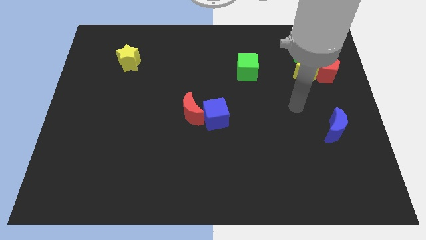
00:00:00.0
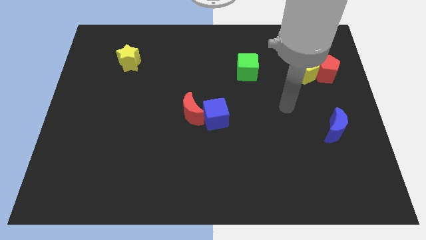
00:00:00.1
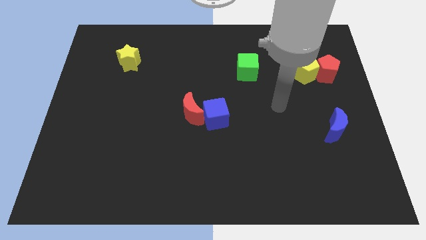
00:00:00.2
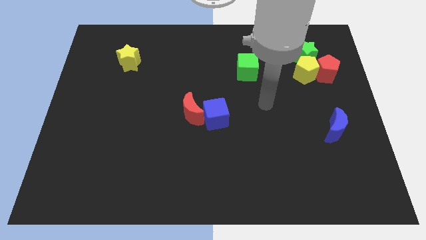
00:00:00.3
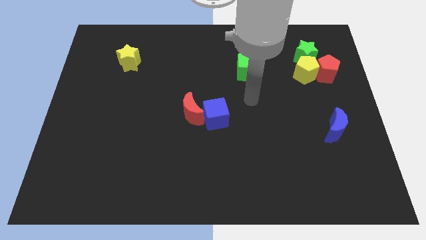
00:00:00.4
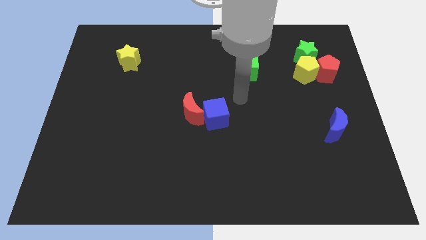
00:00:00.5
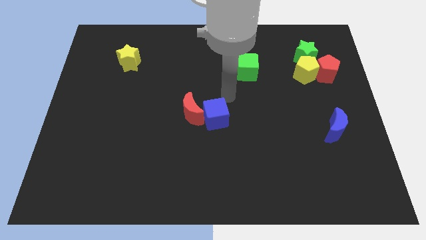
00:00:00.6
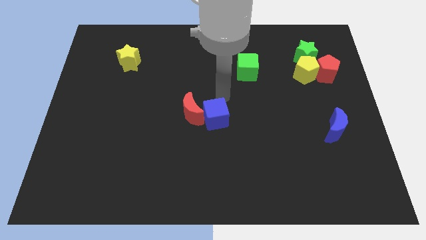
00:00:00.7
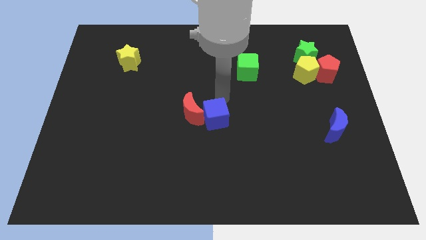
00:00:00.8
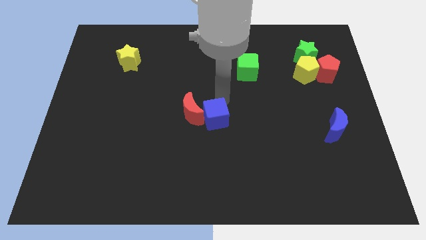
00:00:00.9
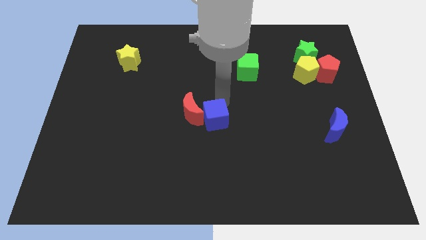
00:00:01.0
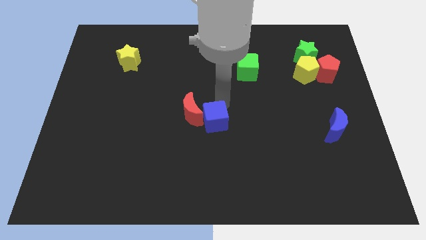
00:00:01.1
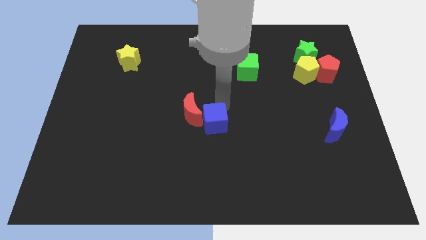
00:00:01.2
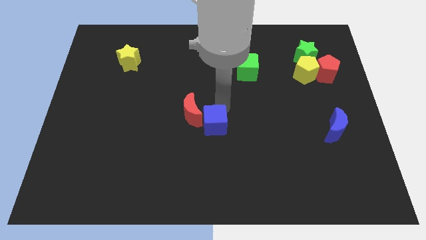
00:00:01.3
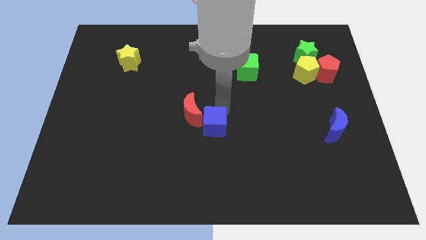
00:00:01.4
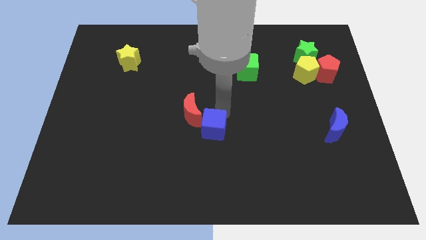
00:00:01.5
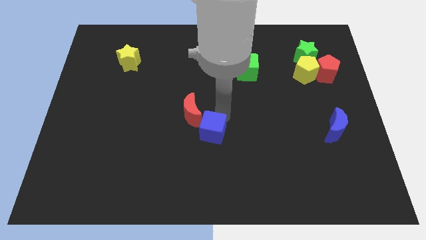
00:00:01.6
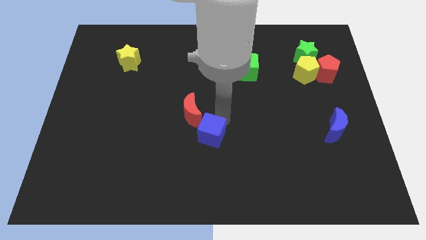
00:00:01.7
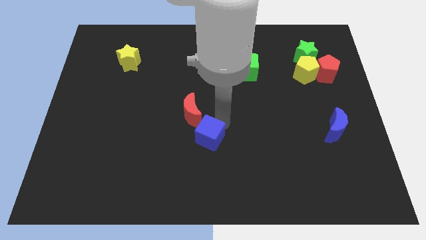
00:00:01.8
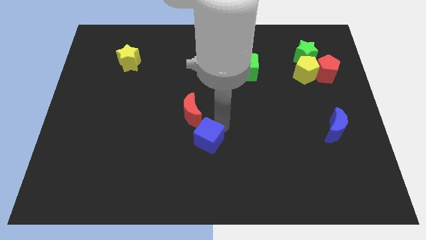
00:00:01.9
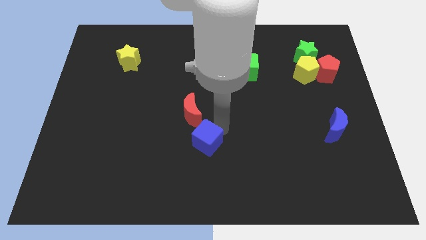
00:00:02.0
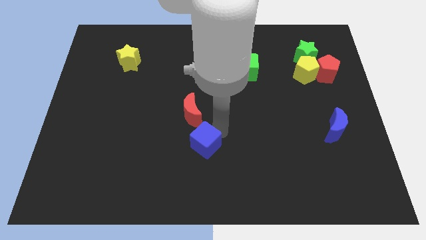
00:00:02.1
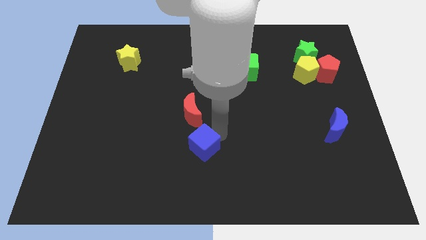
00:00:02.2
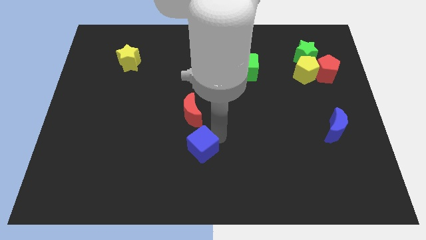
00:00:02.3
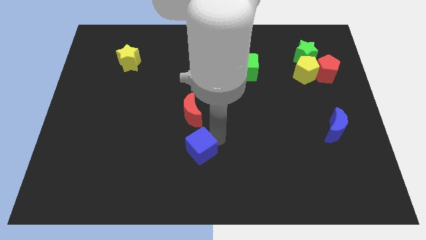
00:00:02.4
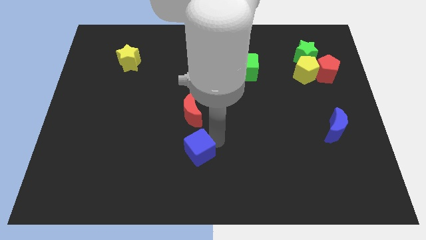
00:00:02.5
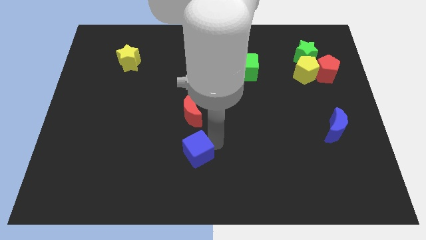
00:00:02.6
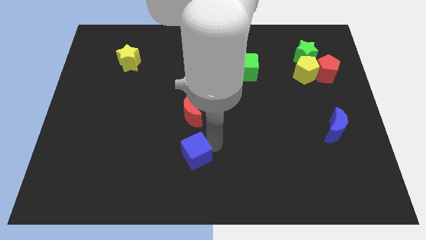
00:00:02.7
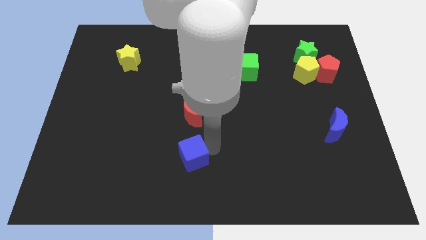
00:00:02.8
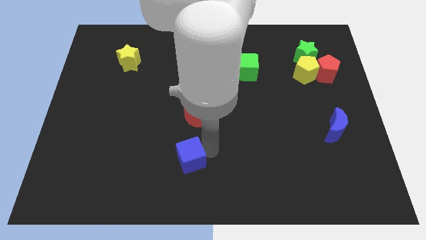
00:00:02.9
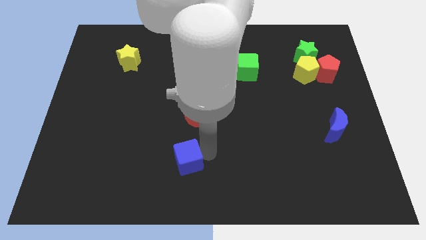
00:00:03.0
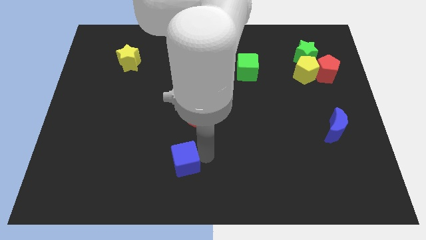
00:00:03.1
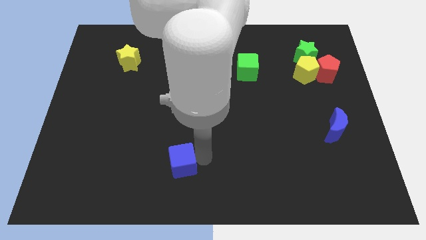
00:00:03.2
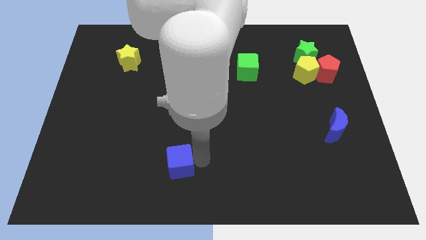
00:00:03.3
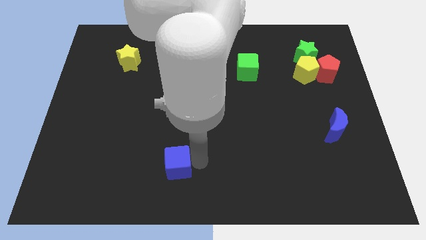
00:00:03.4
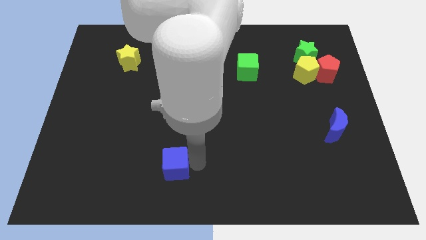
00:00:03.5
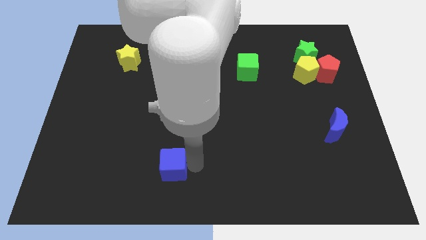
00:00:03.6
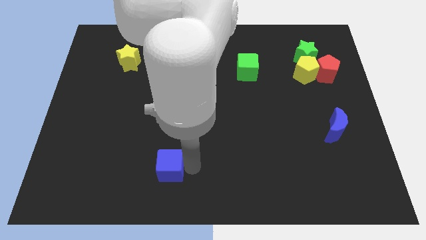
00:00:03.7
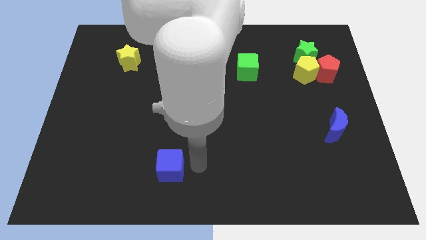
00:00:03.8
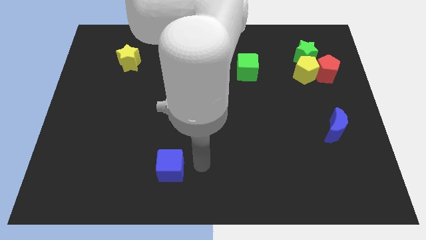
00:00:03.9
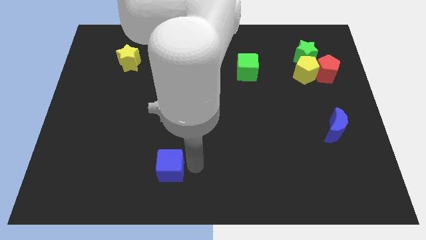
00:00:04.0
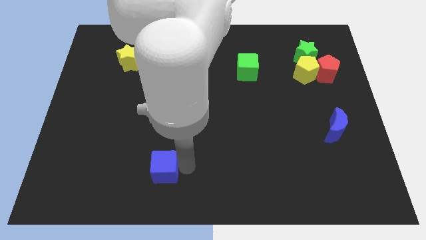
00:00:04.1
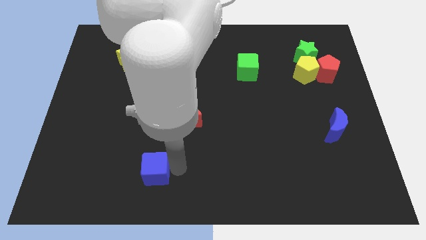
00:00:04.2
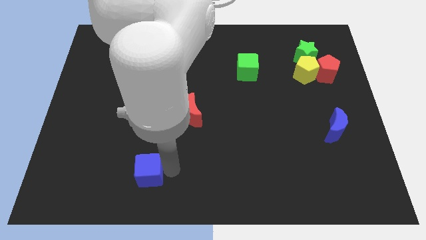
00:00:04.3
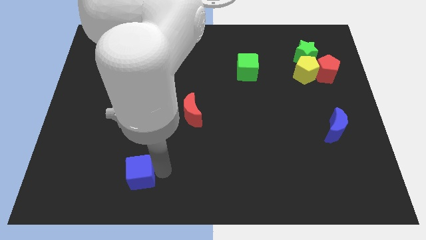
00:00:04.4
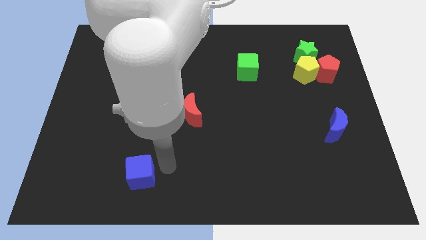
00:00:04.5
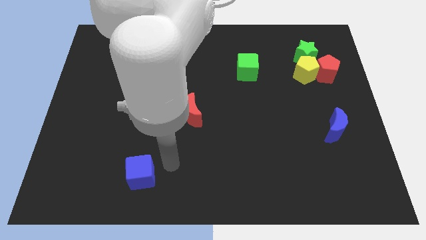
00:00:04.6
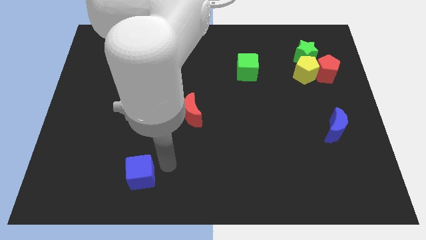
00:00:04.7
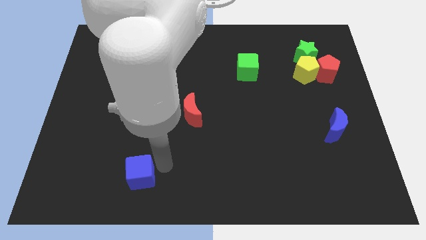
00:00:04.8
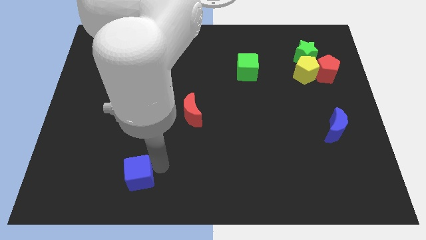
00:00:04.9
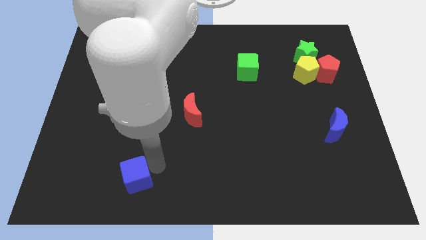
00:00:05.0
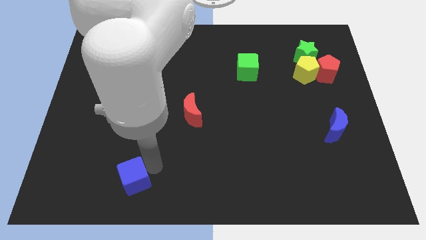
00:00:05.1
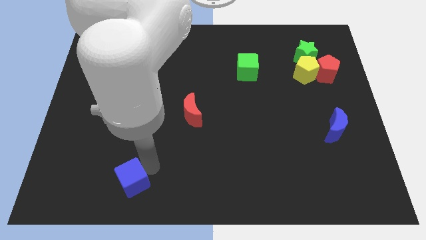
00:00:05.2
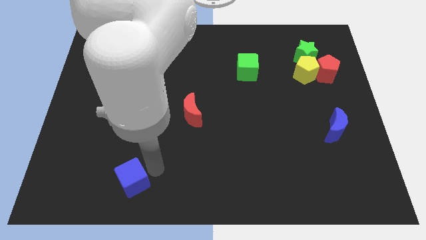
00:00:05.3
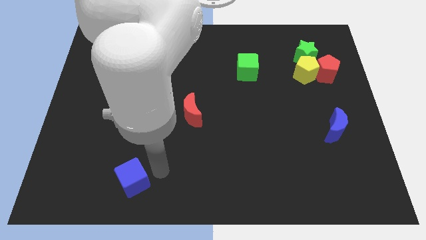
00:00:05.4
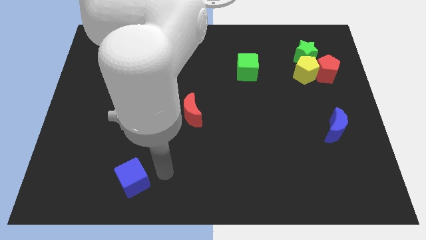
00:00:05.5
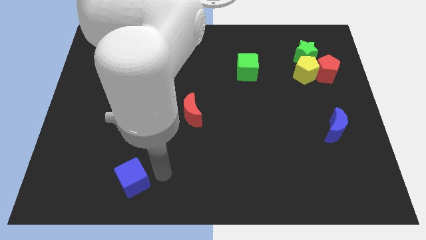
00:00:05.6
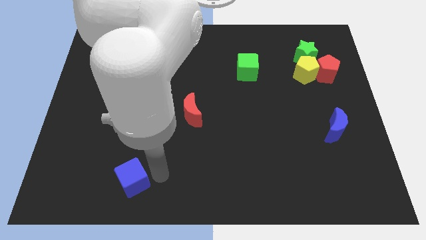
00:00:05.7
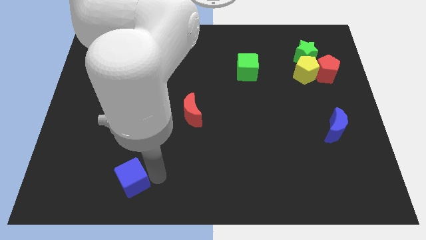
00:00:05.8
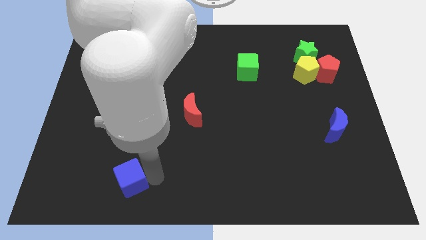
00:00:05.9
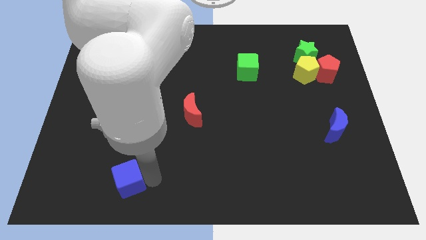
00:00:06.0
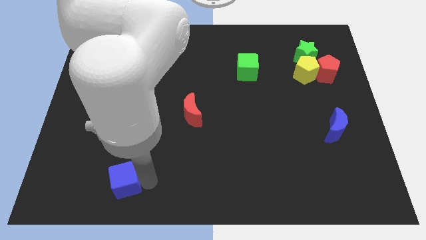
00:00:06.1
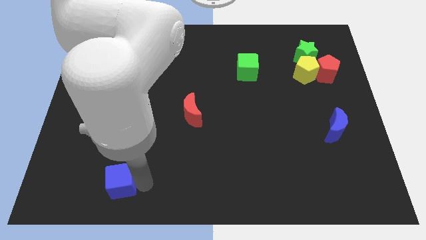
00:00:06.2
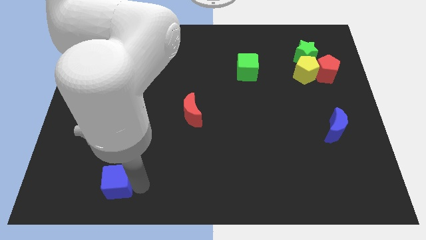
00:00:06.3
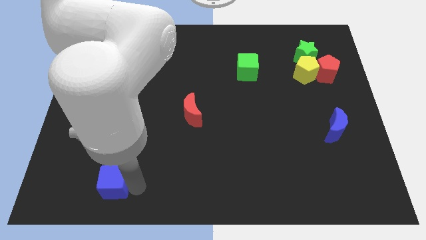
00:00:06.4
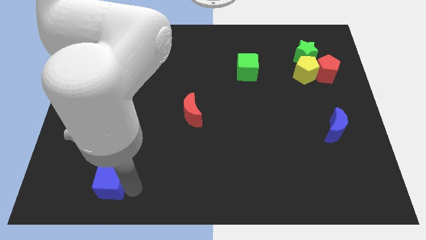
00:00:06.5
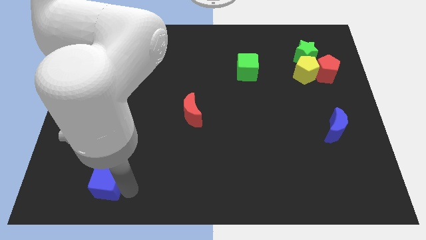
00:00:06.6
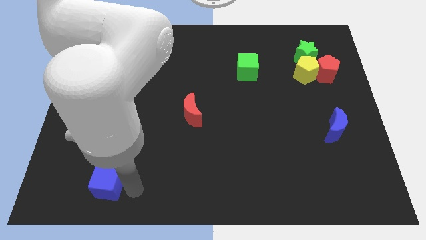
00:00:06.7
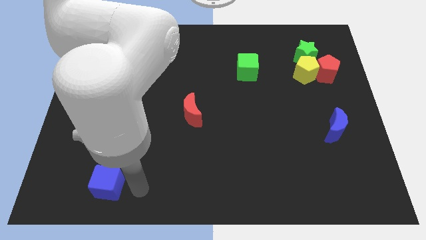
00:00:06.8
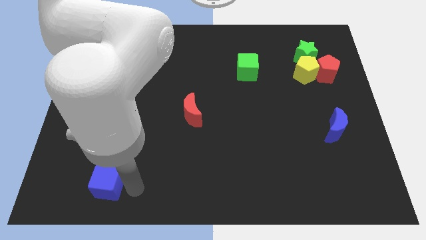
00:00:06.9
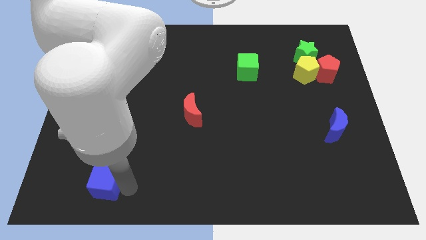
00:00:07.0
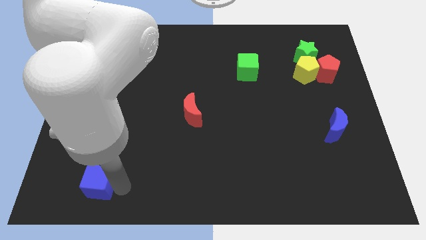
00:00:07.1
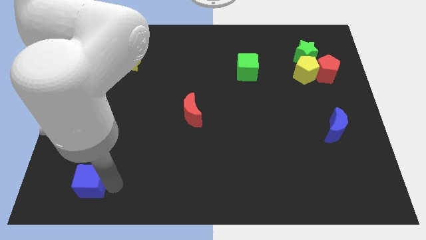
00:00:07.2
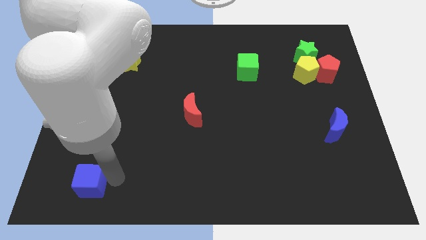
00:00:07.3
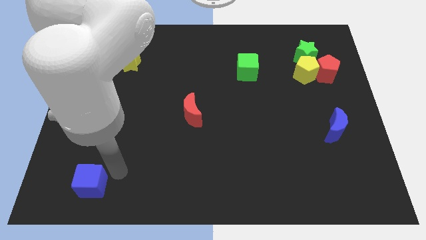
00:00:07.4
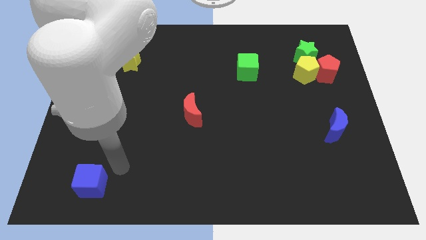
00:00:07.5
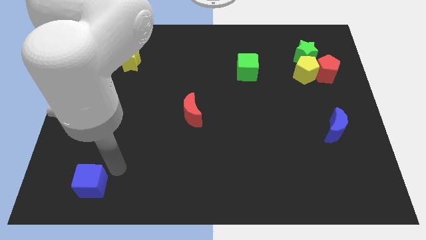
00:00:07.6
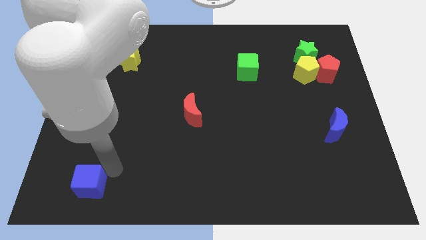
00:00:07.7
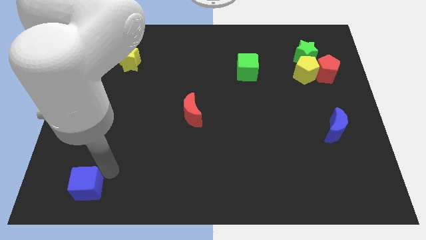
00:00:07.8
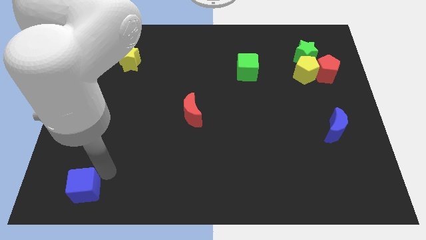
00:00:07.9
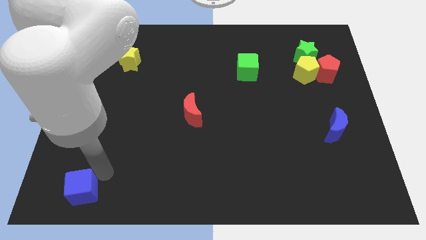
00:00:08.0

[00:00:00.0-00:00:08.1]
slide the blue cube to the bottom left of the board
